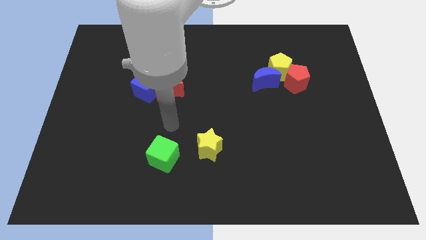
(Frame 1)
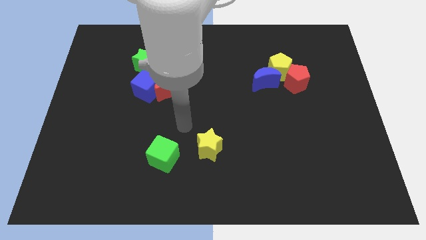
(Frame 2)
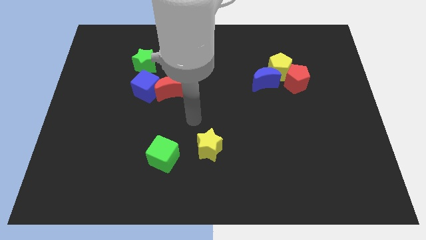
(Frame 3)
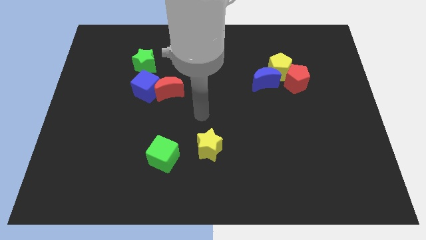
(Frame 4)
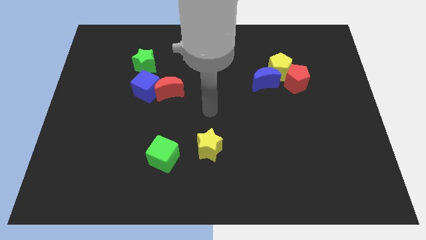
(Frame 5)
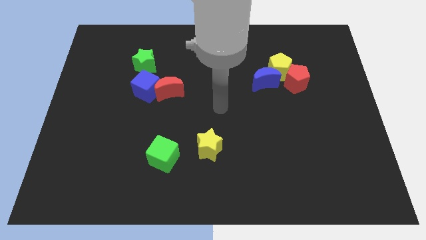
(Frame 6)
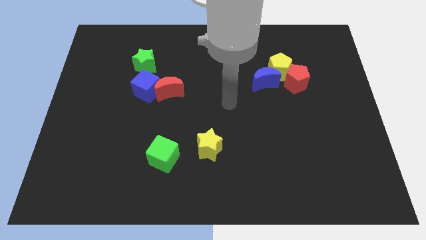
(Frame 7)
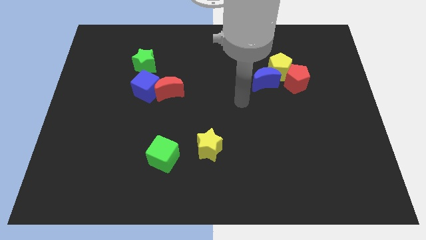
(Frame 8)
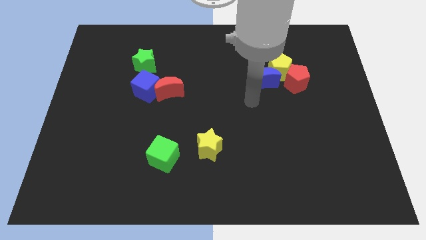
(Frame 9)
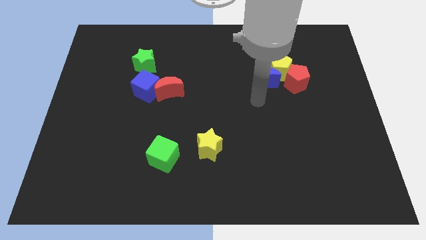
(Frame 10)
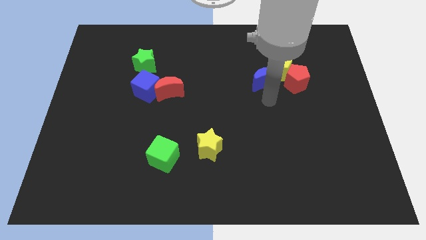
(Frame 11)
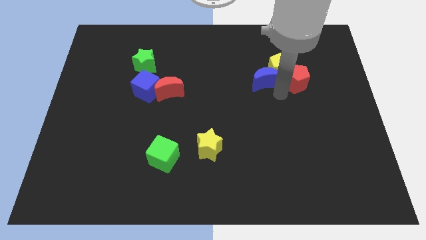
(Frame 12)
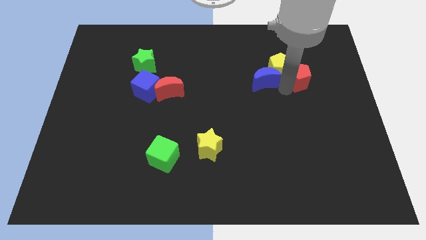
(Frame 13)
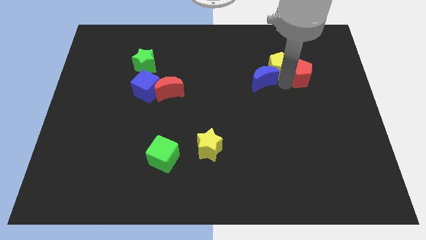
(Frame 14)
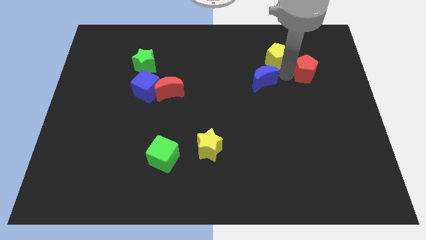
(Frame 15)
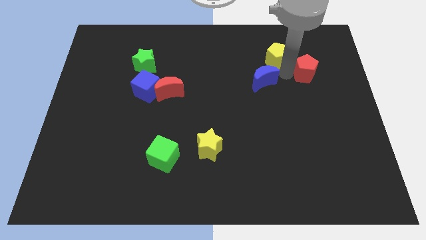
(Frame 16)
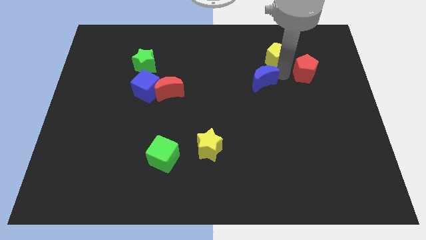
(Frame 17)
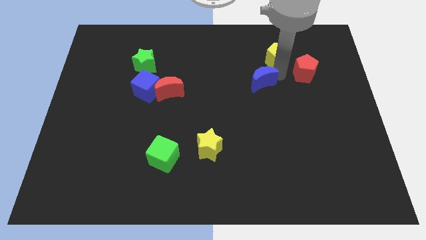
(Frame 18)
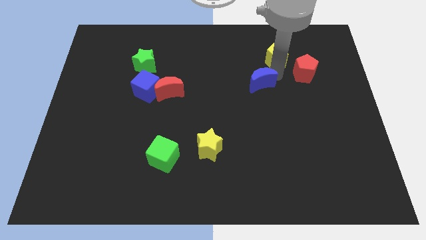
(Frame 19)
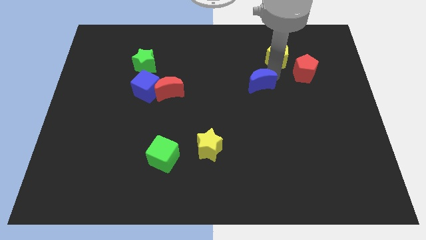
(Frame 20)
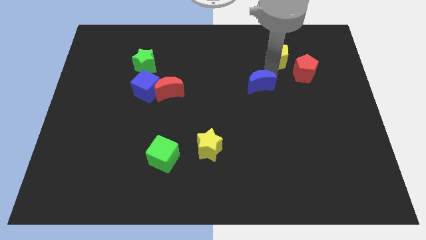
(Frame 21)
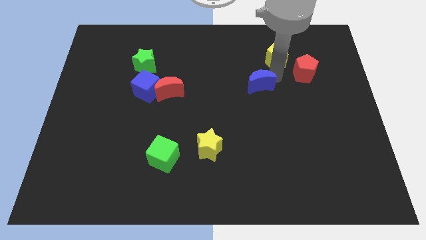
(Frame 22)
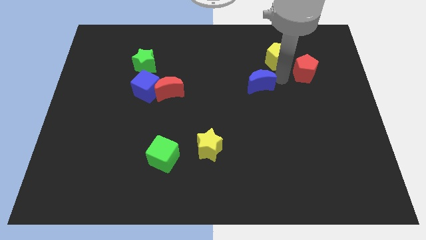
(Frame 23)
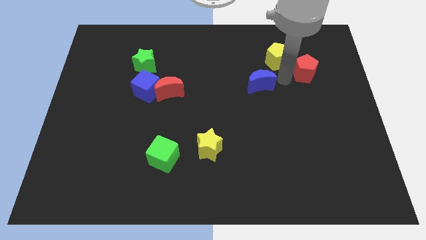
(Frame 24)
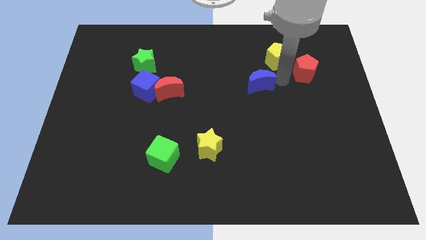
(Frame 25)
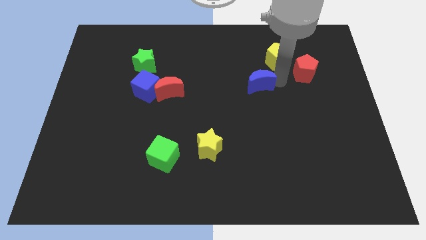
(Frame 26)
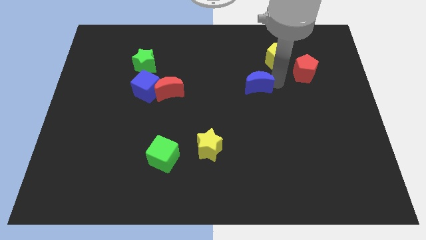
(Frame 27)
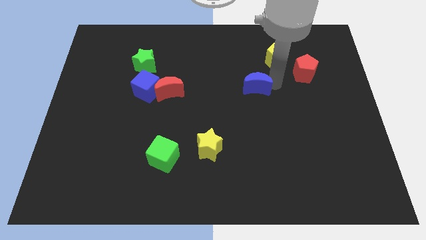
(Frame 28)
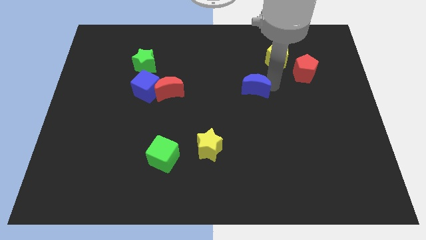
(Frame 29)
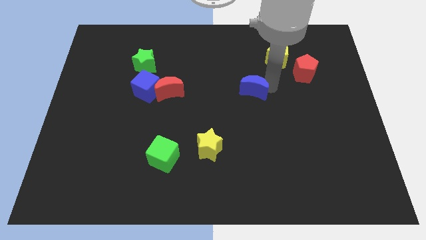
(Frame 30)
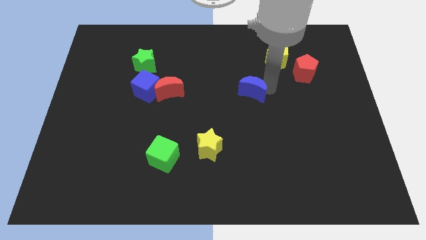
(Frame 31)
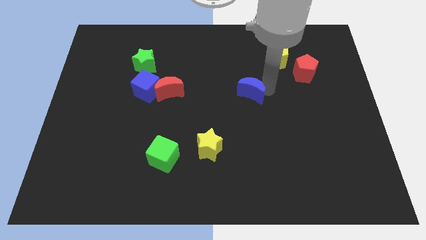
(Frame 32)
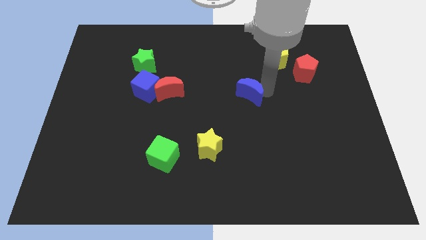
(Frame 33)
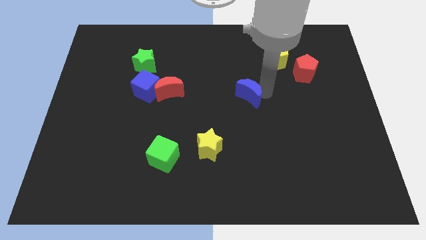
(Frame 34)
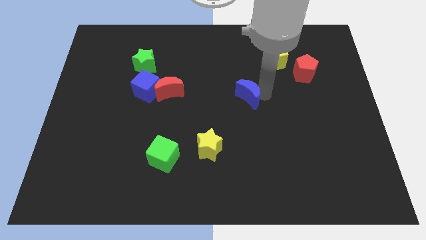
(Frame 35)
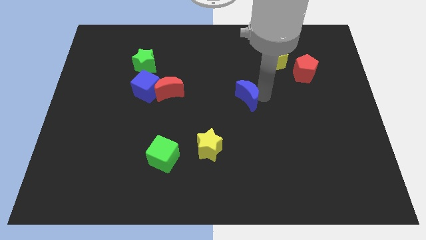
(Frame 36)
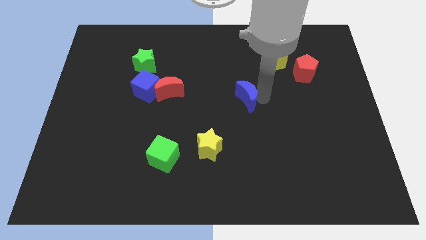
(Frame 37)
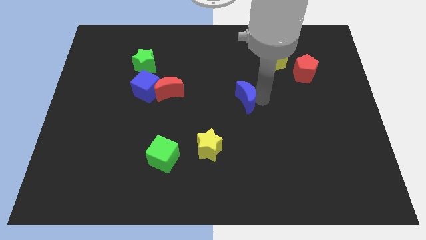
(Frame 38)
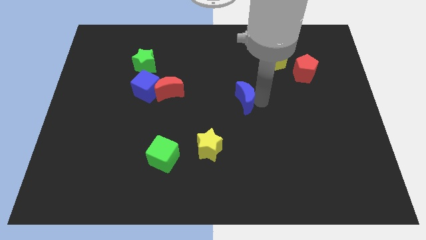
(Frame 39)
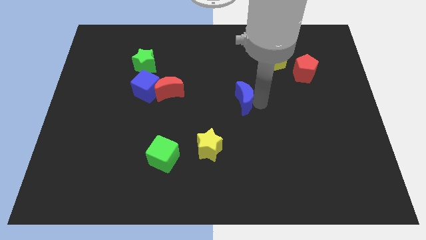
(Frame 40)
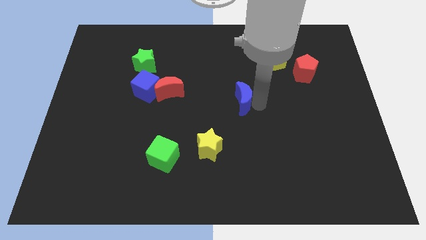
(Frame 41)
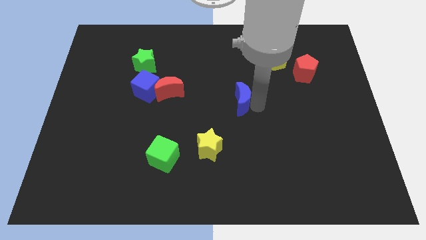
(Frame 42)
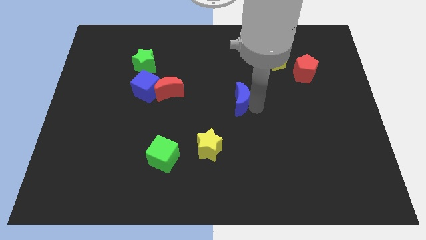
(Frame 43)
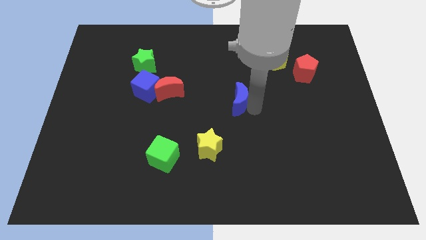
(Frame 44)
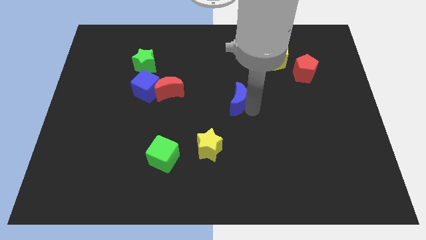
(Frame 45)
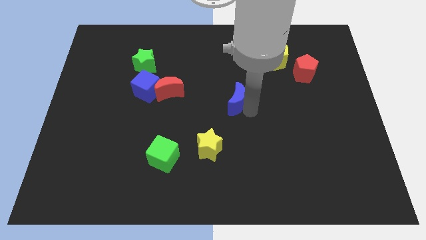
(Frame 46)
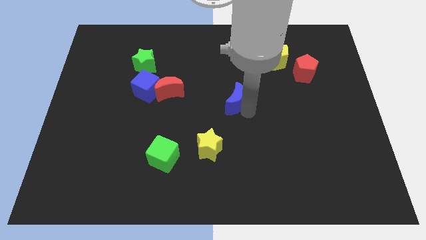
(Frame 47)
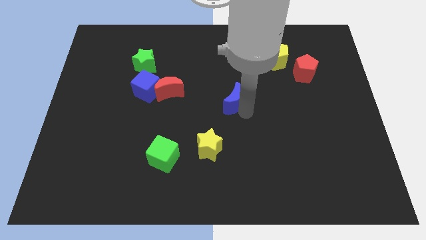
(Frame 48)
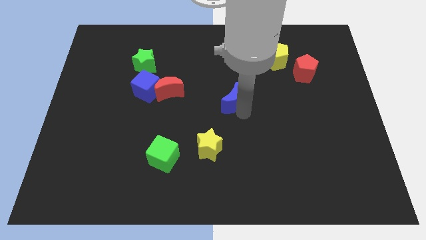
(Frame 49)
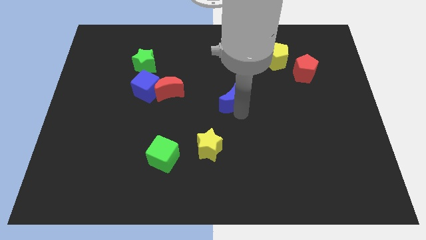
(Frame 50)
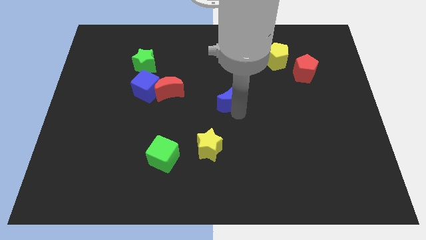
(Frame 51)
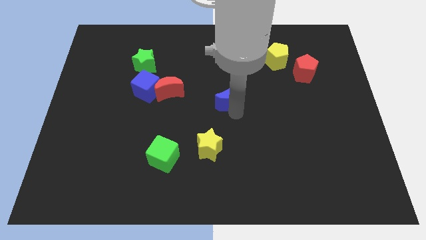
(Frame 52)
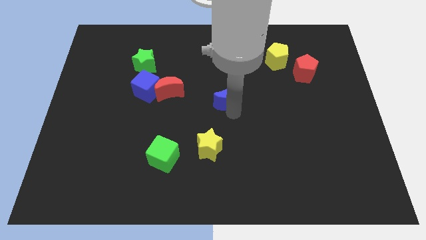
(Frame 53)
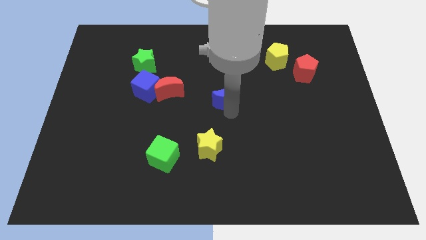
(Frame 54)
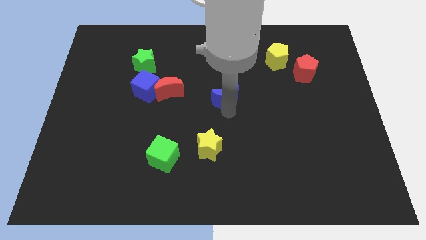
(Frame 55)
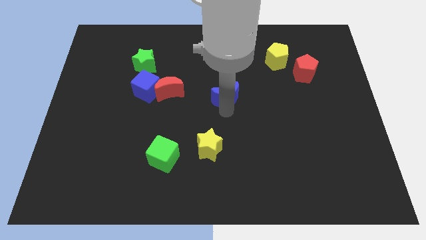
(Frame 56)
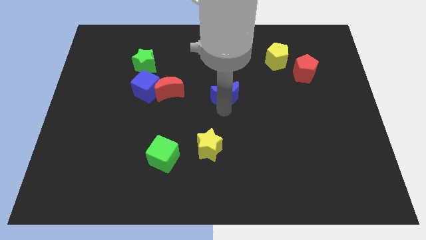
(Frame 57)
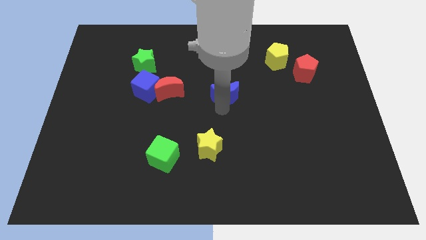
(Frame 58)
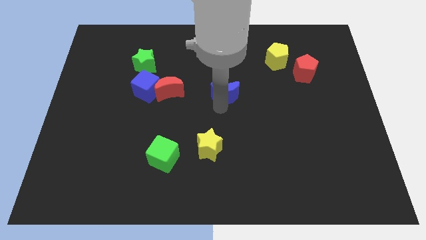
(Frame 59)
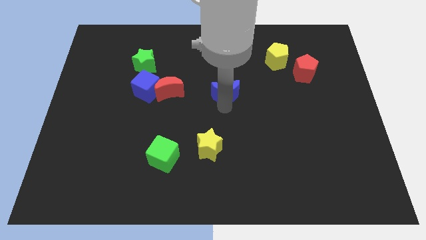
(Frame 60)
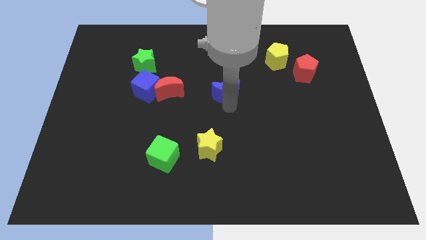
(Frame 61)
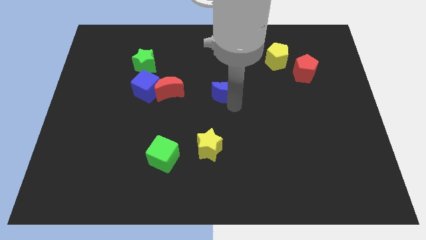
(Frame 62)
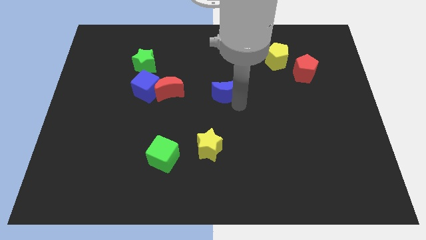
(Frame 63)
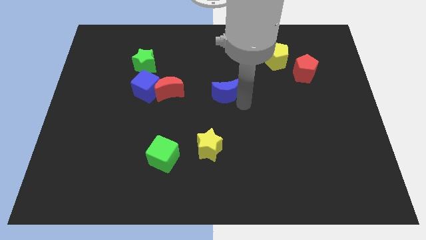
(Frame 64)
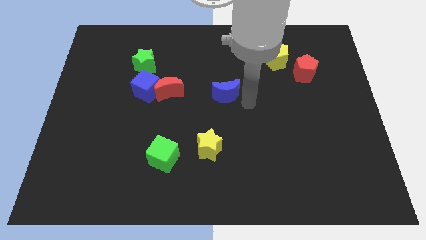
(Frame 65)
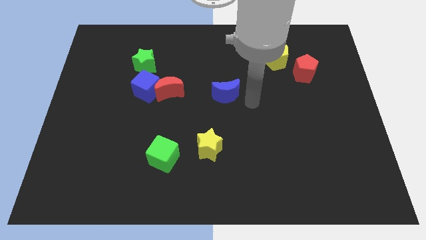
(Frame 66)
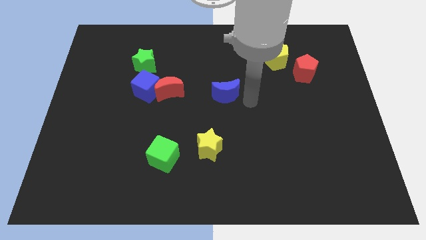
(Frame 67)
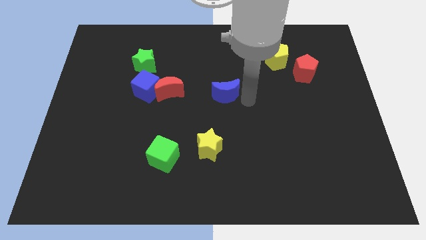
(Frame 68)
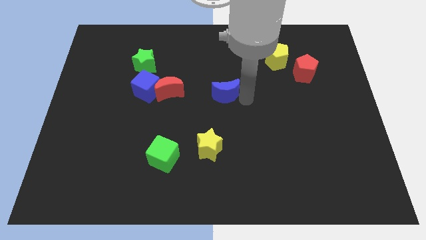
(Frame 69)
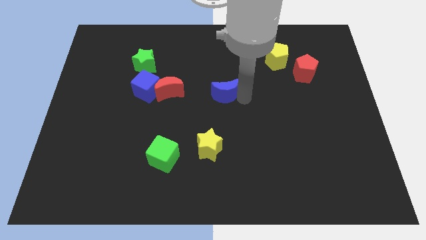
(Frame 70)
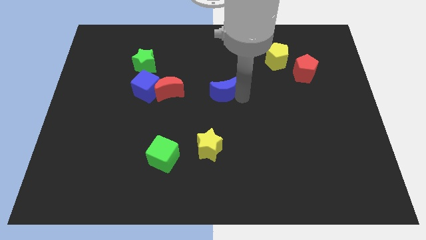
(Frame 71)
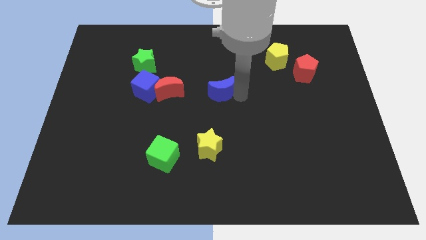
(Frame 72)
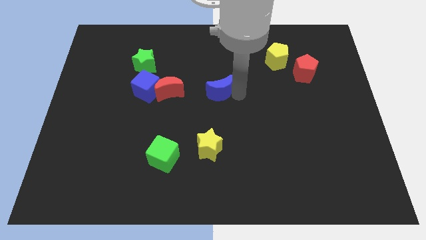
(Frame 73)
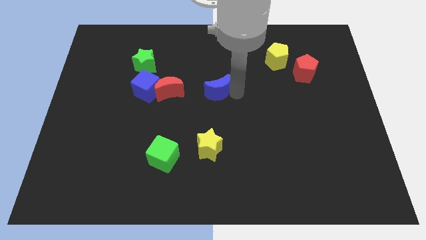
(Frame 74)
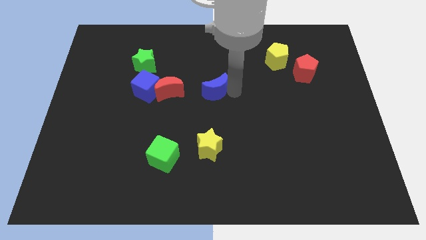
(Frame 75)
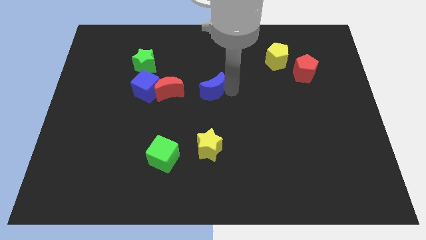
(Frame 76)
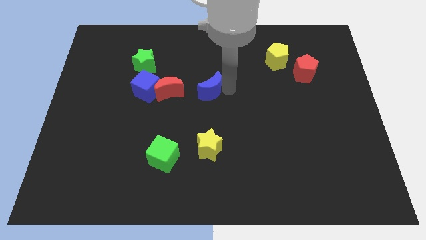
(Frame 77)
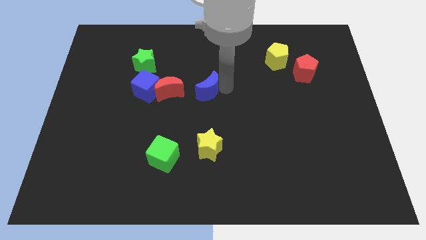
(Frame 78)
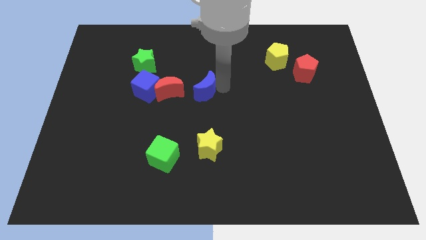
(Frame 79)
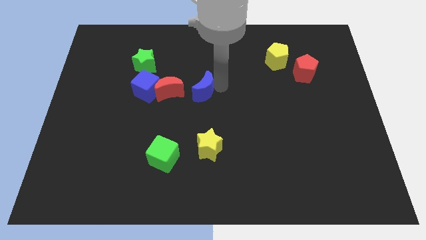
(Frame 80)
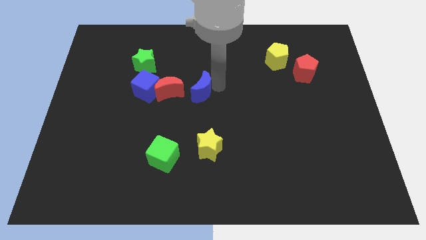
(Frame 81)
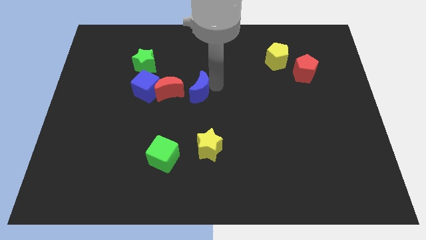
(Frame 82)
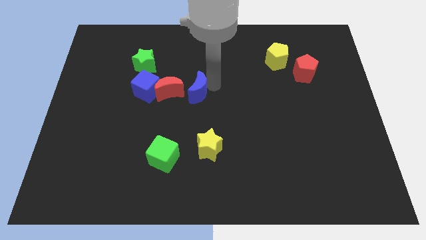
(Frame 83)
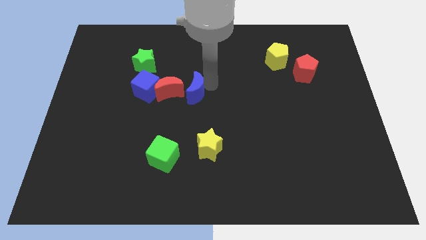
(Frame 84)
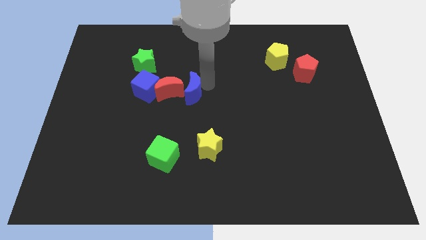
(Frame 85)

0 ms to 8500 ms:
move the blue moon to the red moon
